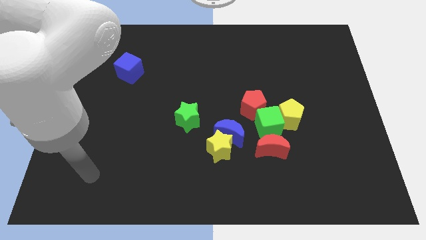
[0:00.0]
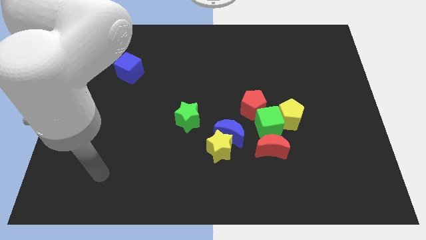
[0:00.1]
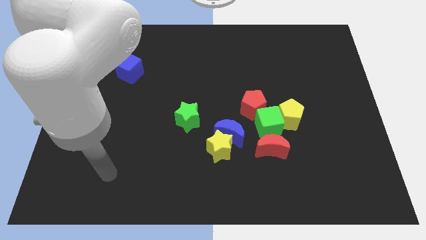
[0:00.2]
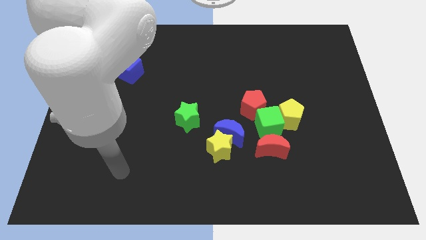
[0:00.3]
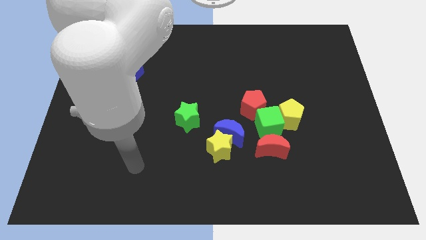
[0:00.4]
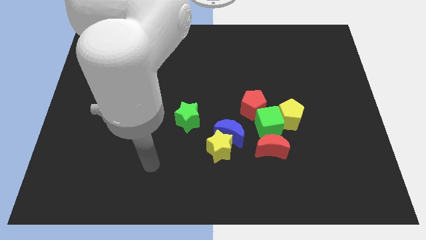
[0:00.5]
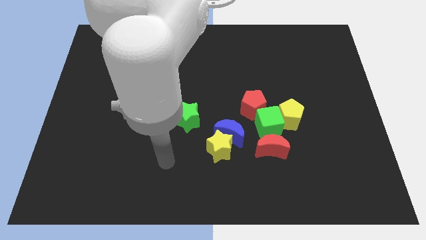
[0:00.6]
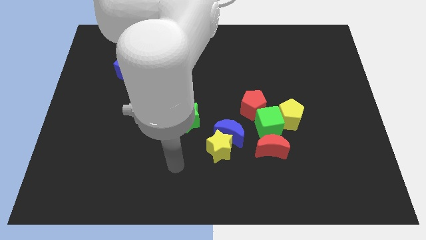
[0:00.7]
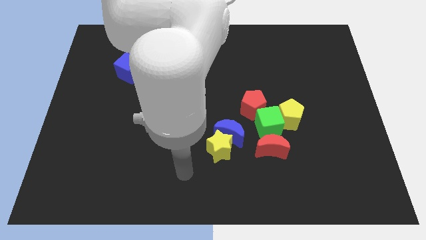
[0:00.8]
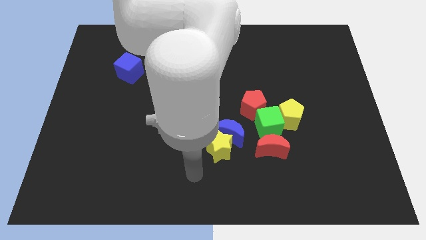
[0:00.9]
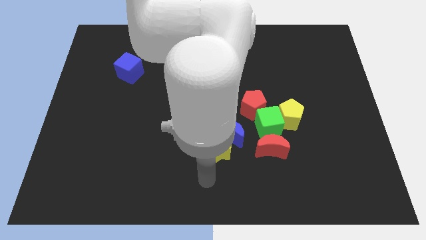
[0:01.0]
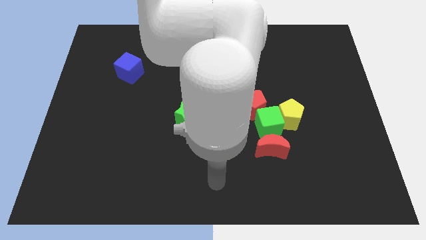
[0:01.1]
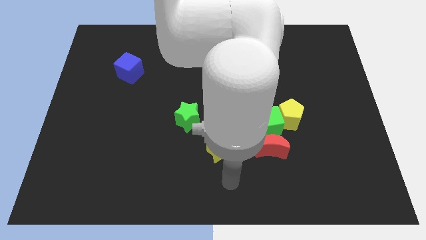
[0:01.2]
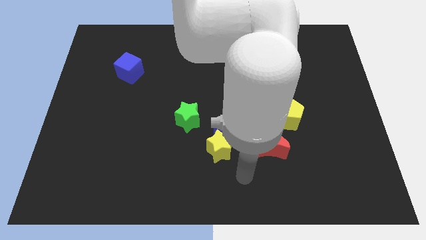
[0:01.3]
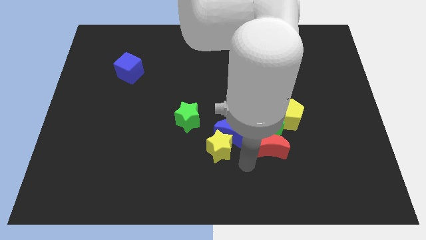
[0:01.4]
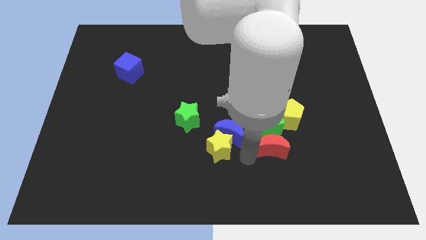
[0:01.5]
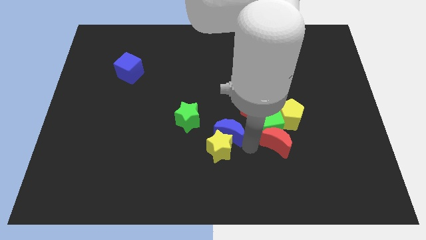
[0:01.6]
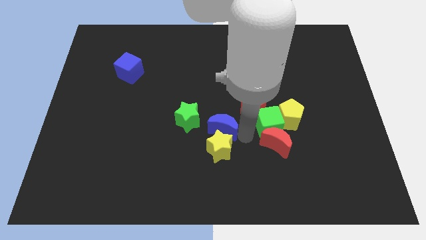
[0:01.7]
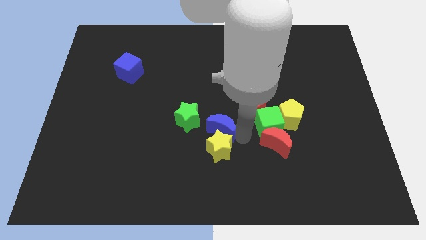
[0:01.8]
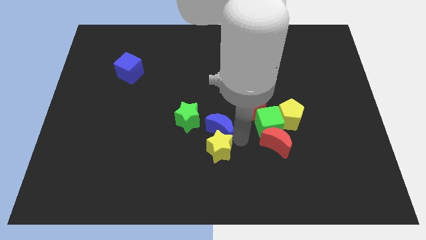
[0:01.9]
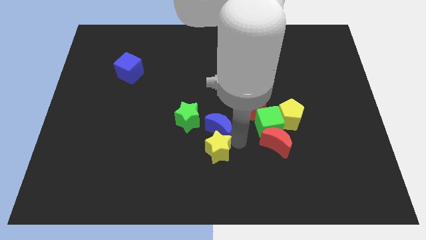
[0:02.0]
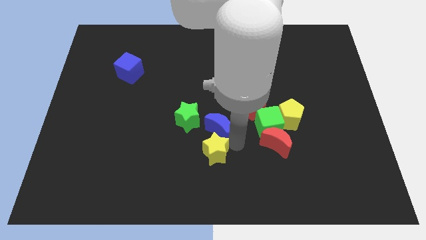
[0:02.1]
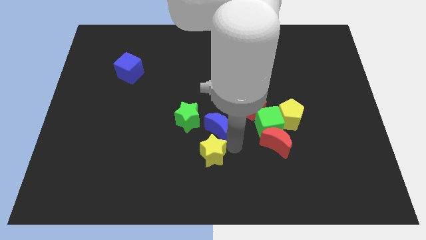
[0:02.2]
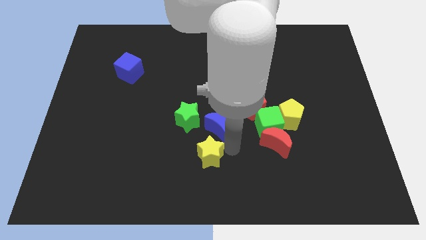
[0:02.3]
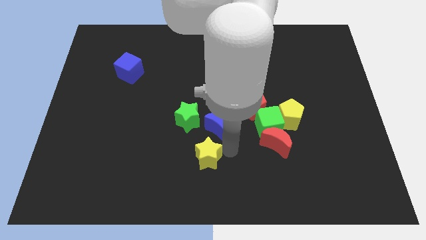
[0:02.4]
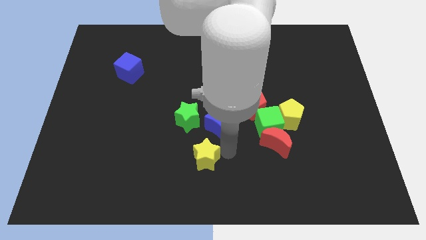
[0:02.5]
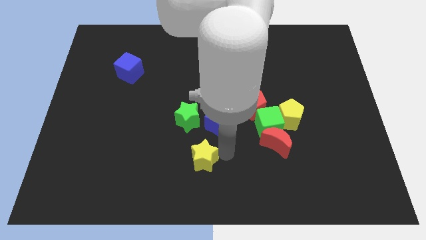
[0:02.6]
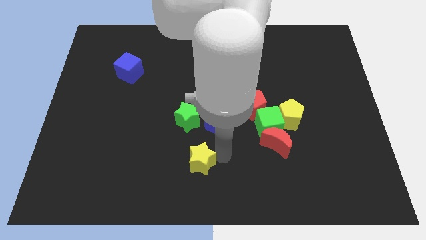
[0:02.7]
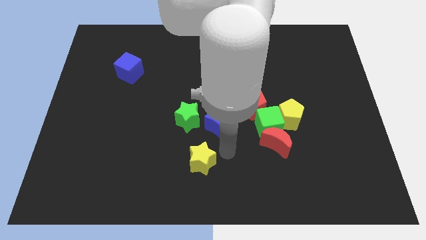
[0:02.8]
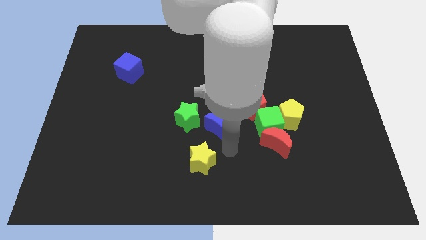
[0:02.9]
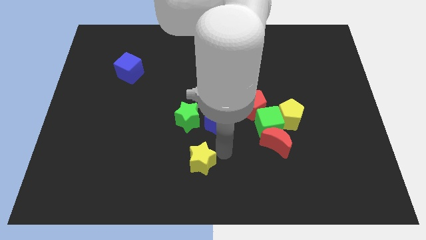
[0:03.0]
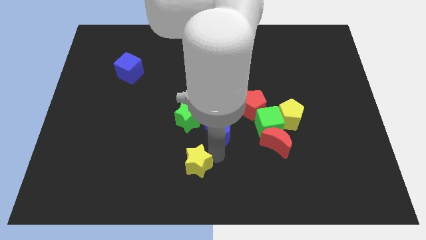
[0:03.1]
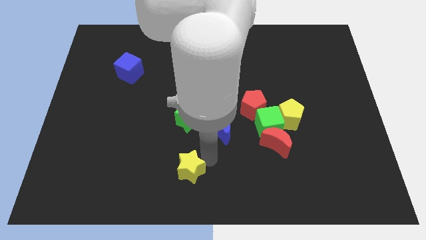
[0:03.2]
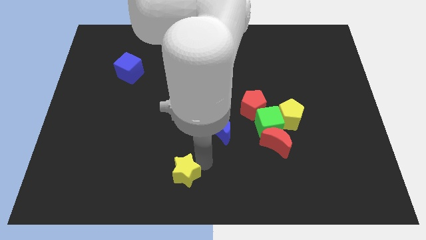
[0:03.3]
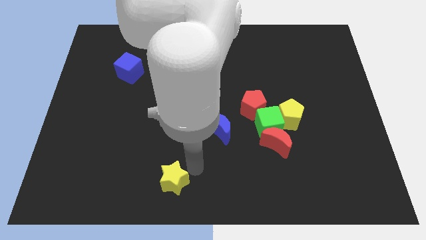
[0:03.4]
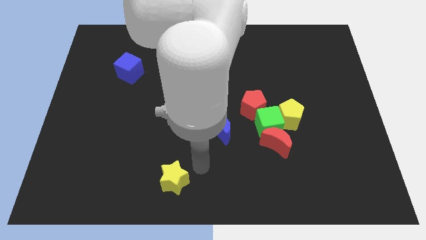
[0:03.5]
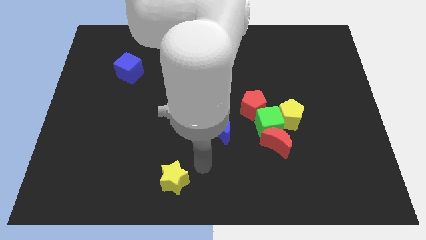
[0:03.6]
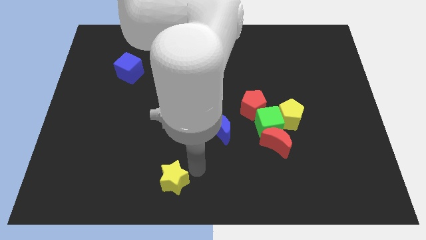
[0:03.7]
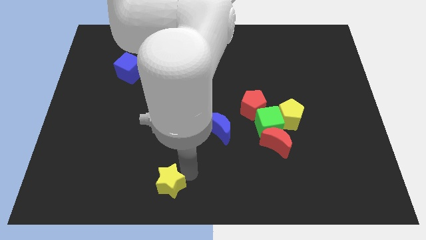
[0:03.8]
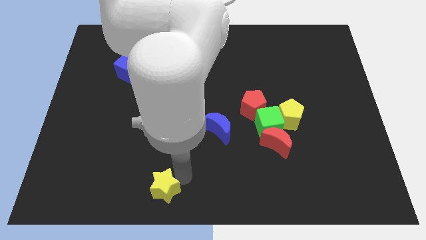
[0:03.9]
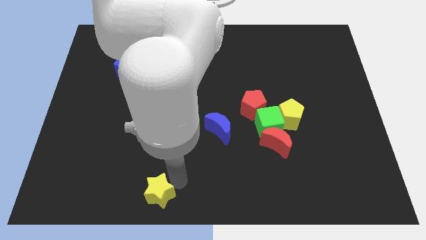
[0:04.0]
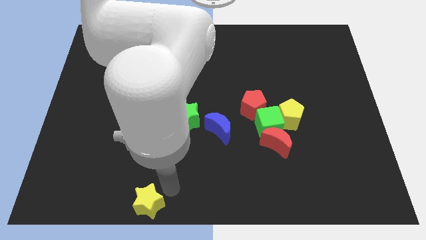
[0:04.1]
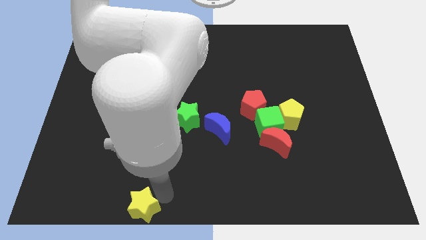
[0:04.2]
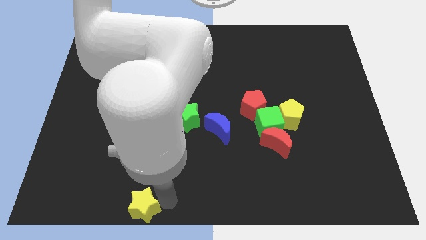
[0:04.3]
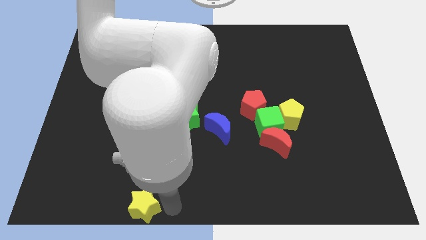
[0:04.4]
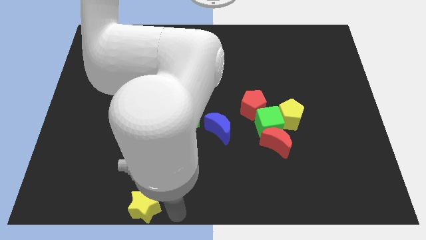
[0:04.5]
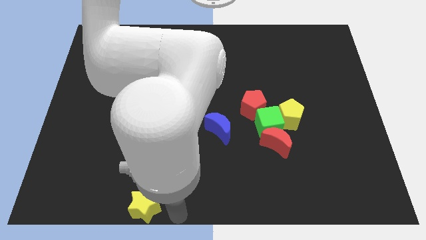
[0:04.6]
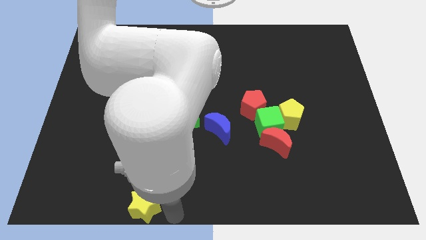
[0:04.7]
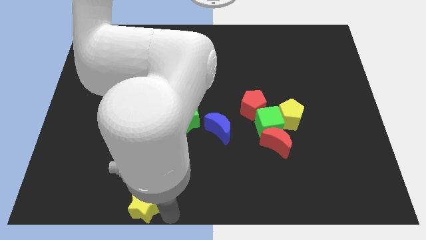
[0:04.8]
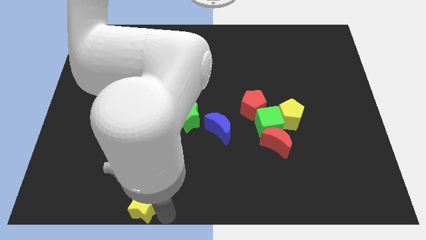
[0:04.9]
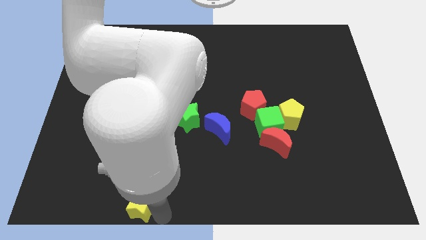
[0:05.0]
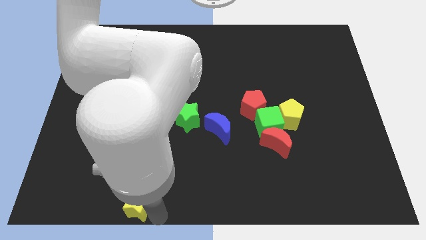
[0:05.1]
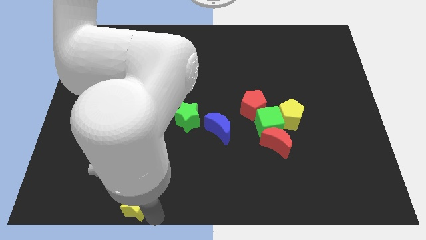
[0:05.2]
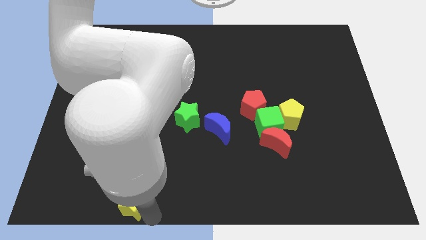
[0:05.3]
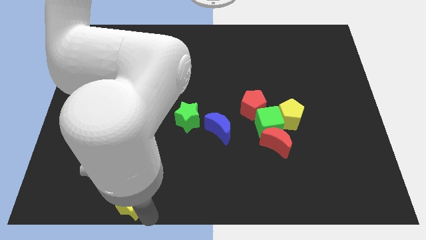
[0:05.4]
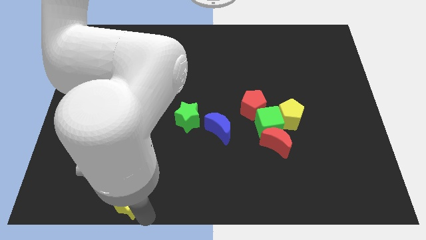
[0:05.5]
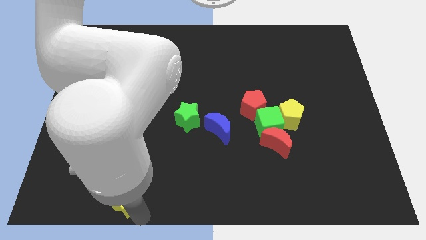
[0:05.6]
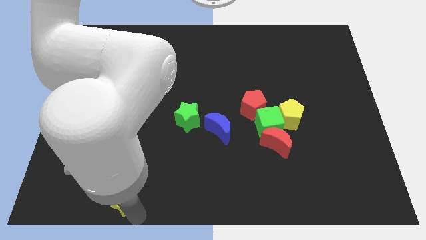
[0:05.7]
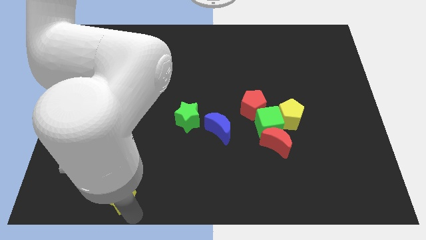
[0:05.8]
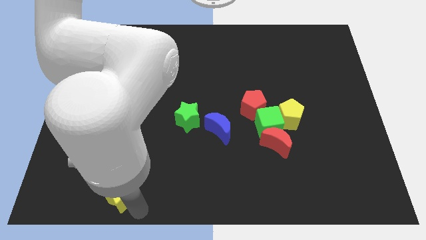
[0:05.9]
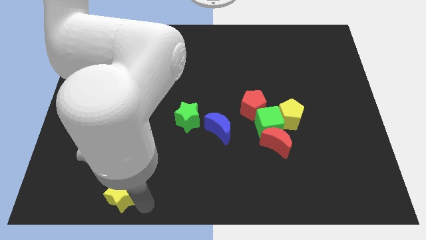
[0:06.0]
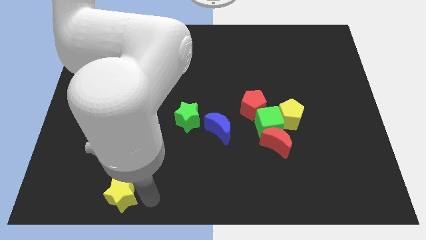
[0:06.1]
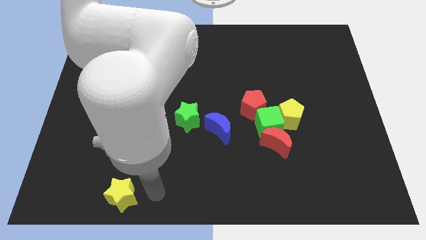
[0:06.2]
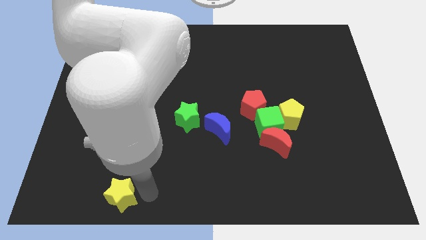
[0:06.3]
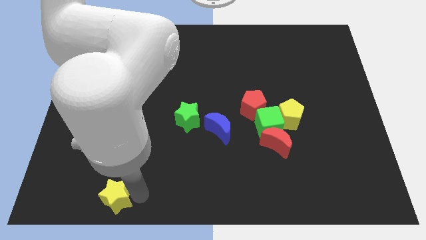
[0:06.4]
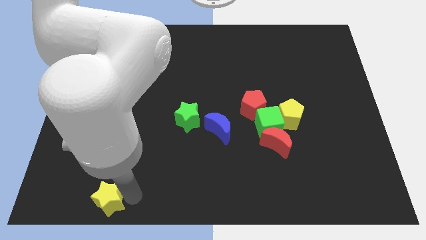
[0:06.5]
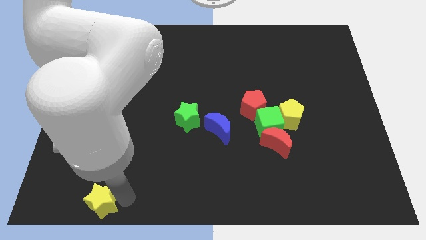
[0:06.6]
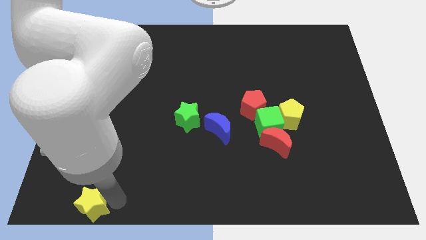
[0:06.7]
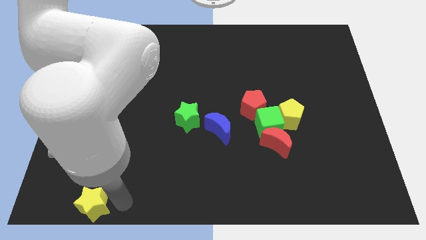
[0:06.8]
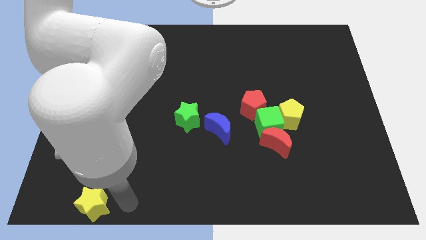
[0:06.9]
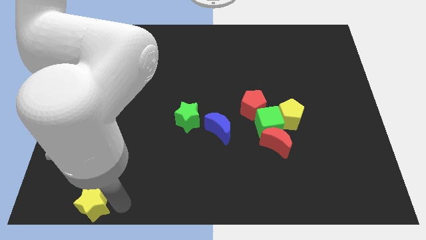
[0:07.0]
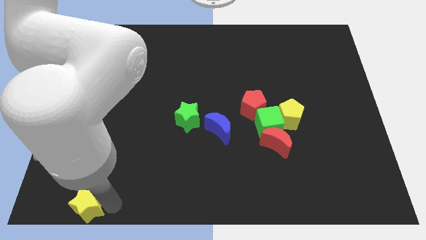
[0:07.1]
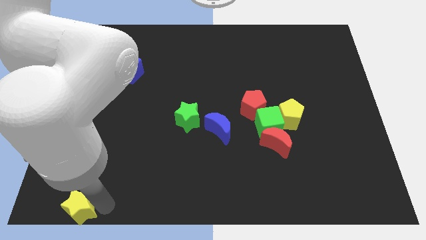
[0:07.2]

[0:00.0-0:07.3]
slide the yellow star to the bottom left of the board
